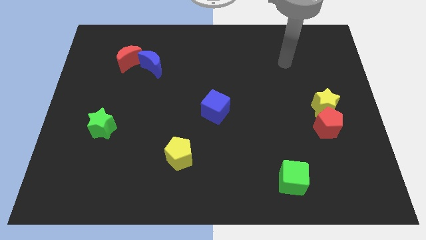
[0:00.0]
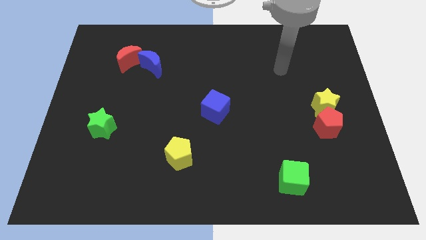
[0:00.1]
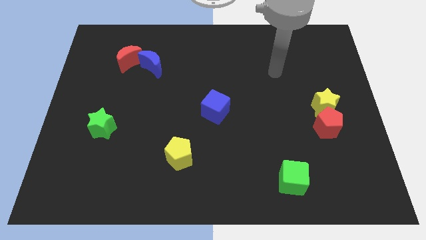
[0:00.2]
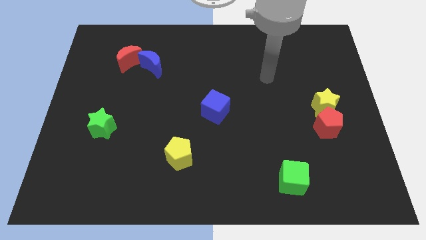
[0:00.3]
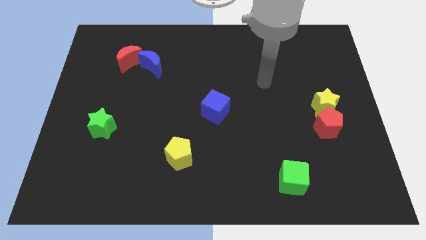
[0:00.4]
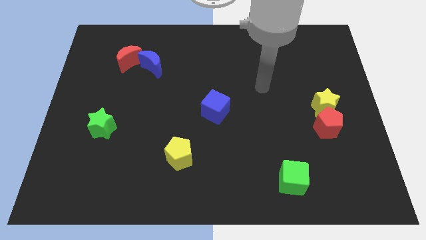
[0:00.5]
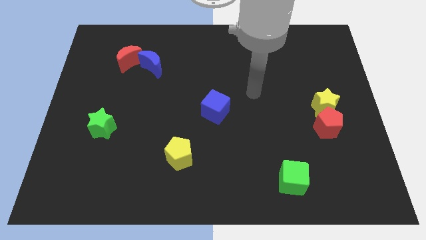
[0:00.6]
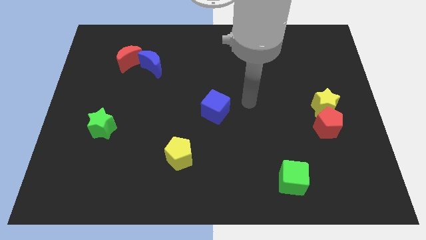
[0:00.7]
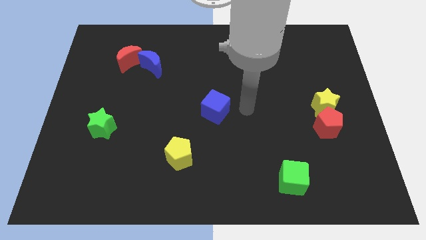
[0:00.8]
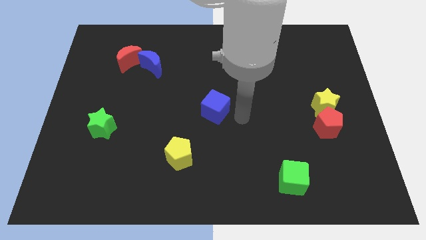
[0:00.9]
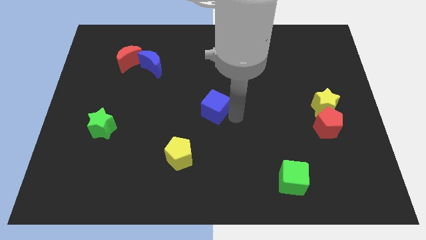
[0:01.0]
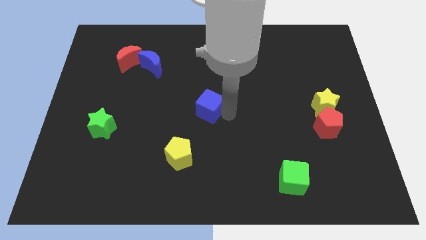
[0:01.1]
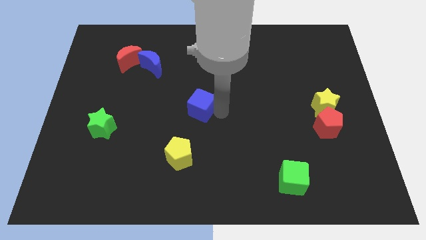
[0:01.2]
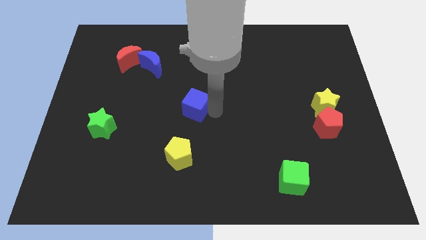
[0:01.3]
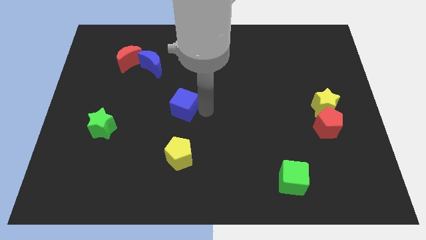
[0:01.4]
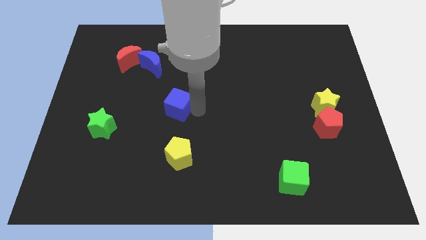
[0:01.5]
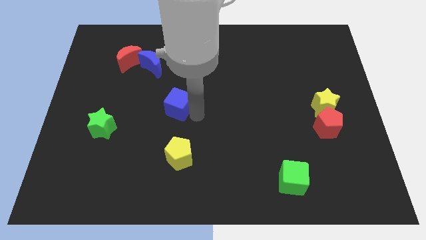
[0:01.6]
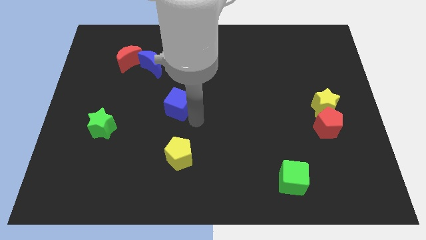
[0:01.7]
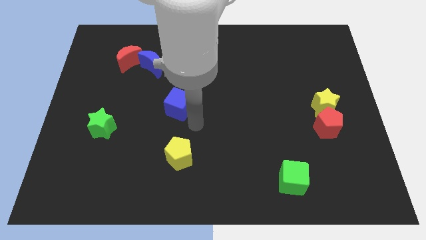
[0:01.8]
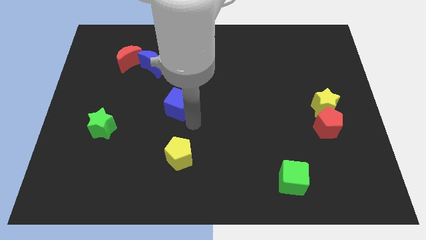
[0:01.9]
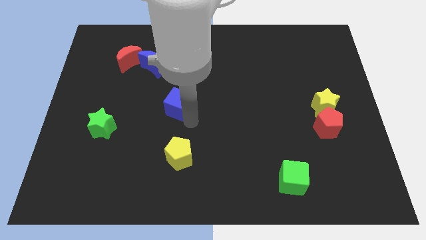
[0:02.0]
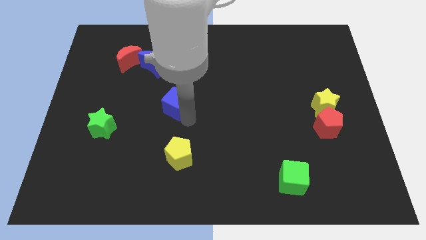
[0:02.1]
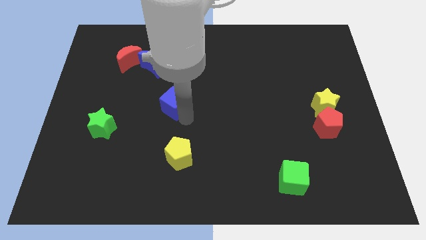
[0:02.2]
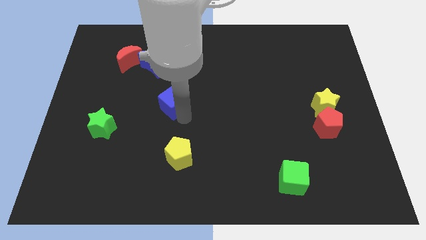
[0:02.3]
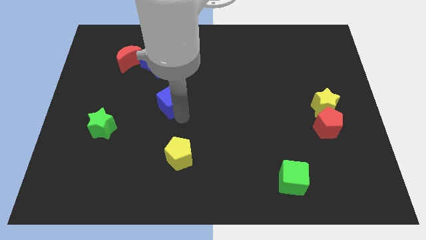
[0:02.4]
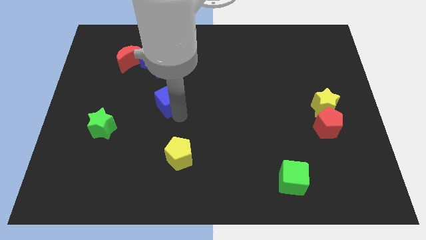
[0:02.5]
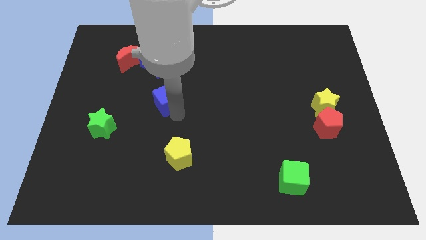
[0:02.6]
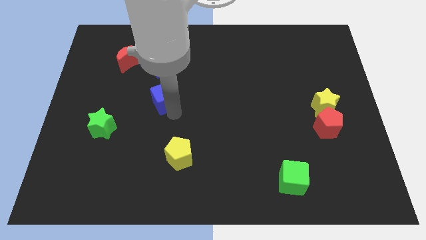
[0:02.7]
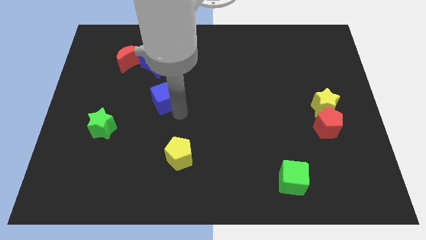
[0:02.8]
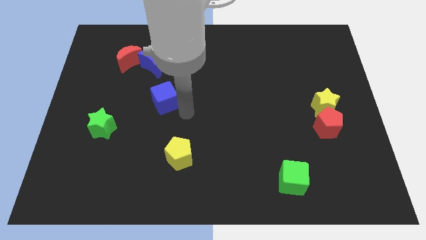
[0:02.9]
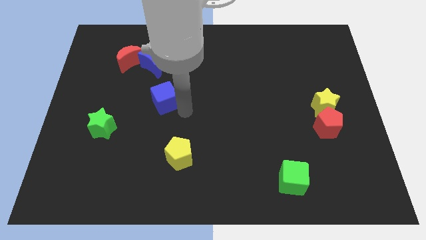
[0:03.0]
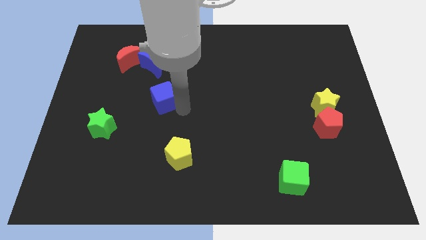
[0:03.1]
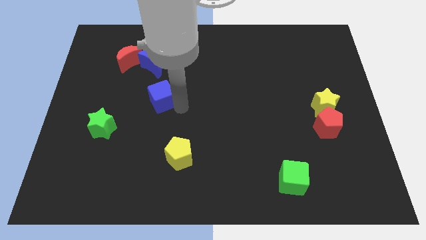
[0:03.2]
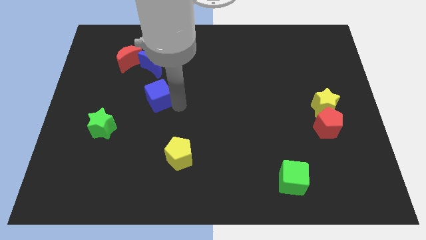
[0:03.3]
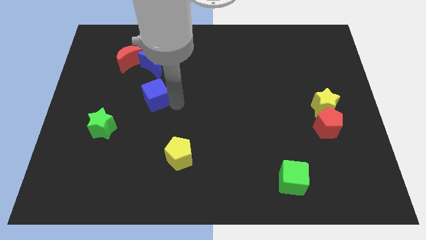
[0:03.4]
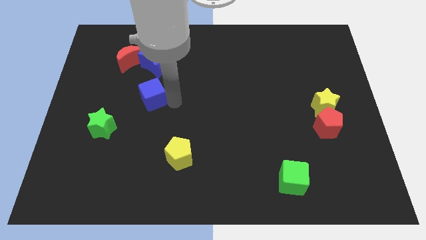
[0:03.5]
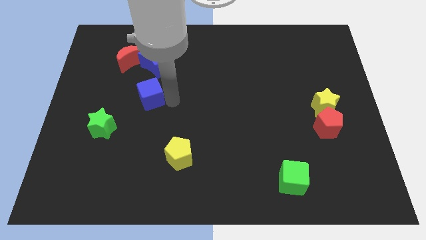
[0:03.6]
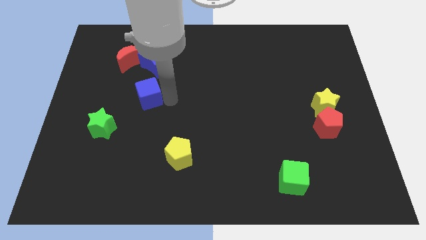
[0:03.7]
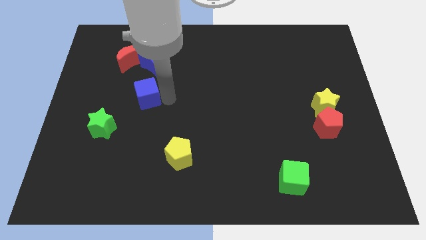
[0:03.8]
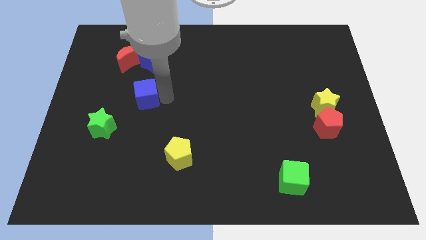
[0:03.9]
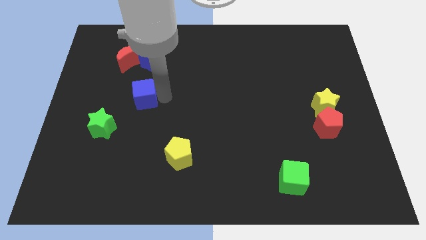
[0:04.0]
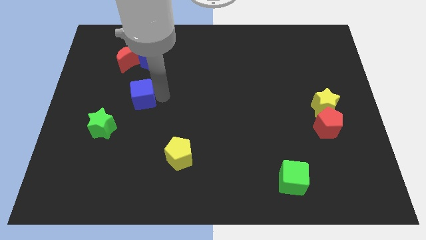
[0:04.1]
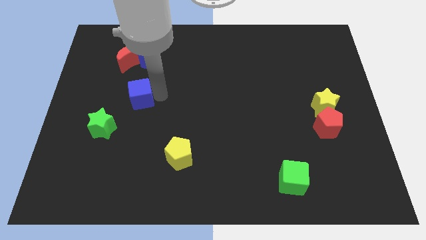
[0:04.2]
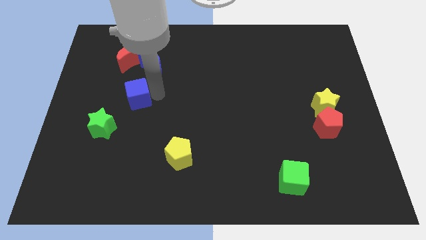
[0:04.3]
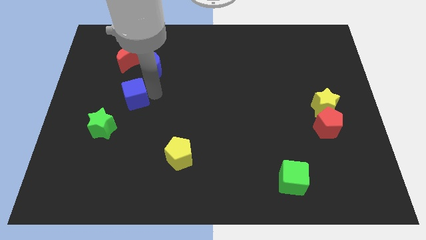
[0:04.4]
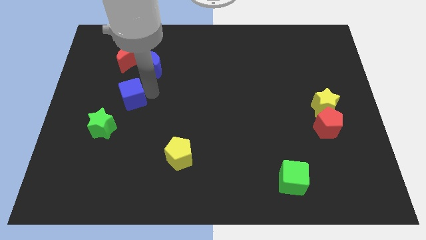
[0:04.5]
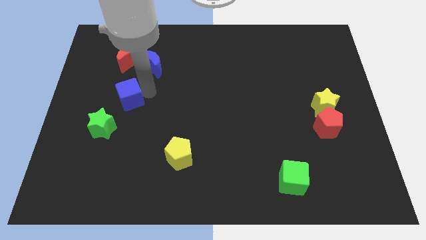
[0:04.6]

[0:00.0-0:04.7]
put the blue cube to the bottom left of the blue moon

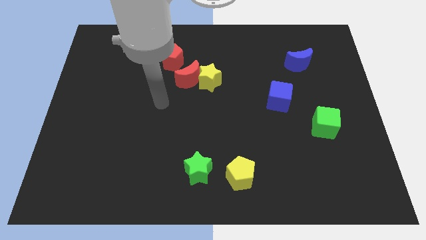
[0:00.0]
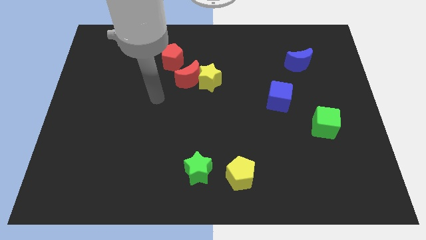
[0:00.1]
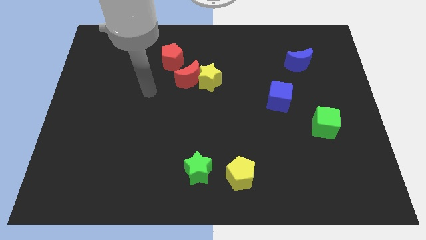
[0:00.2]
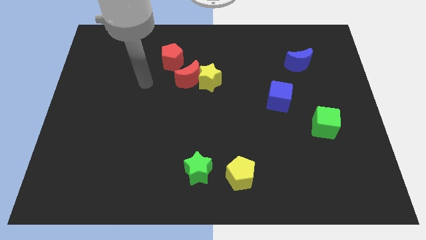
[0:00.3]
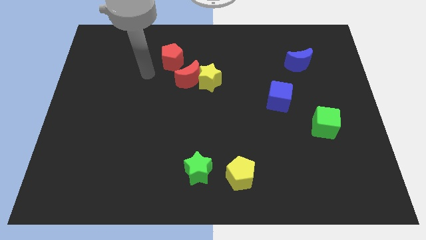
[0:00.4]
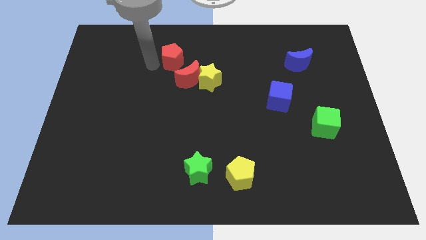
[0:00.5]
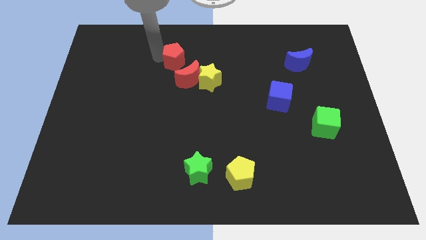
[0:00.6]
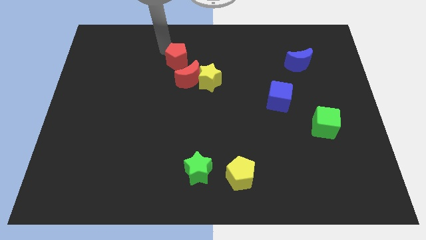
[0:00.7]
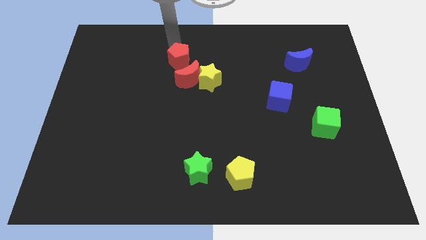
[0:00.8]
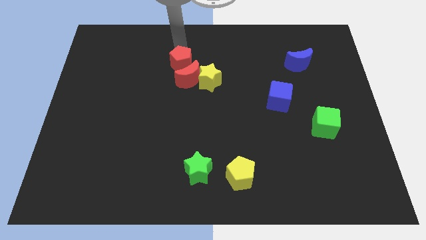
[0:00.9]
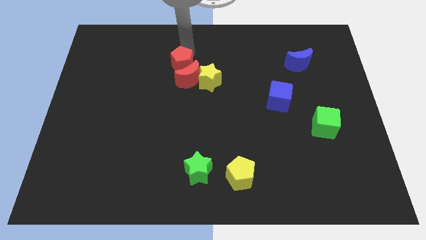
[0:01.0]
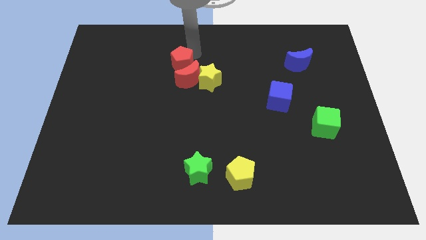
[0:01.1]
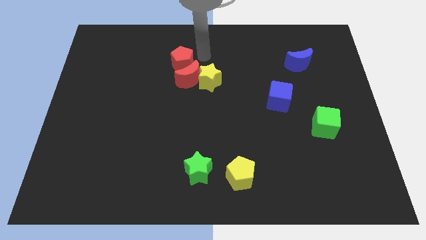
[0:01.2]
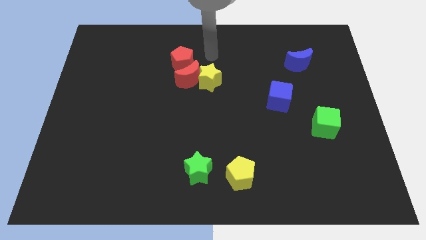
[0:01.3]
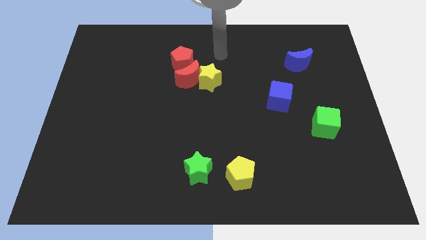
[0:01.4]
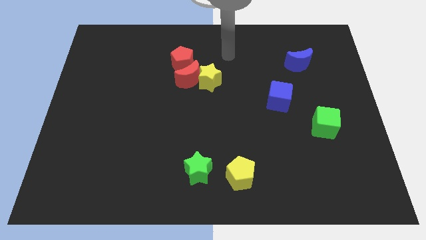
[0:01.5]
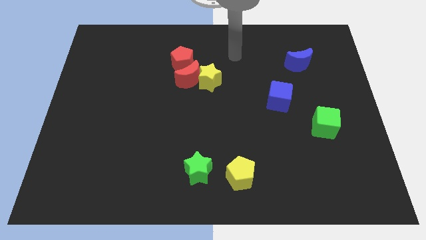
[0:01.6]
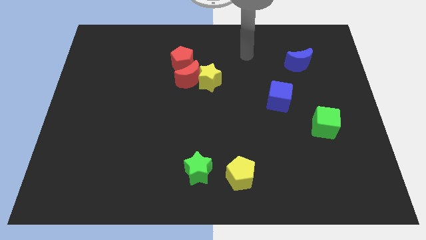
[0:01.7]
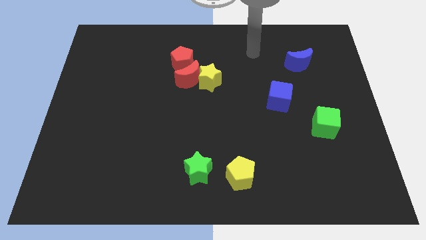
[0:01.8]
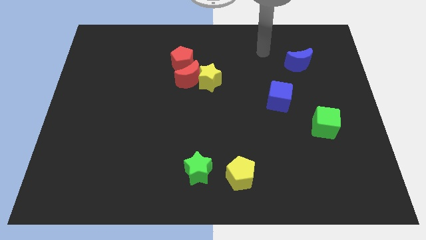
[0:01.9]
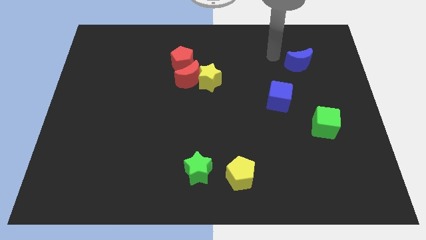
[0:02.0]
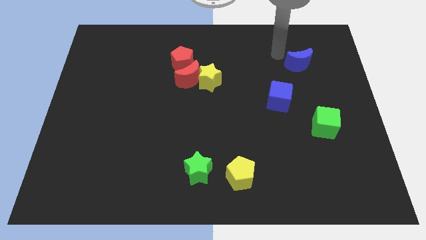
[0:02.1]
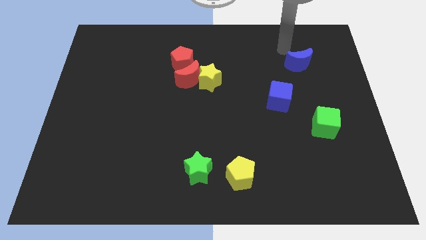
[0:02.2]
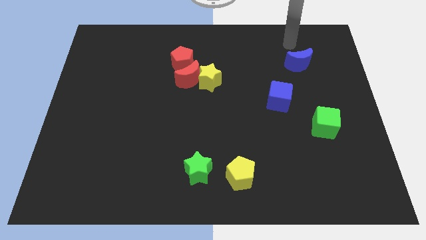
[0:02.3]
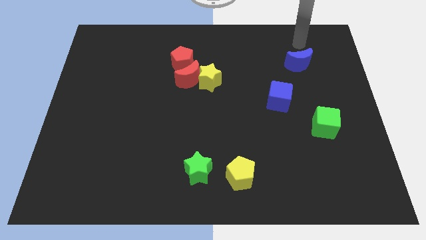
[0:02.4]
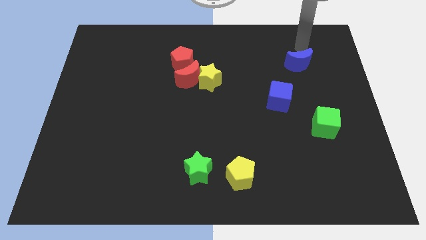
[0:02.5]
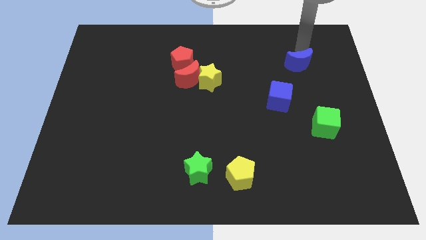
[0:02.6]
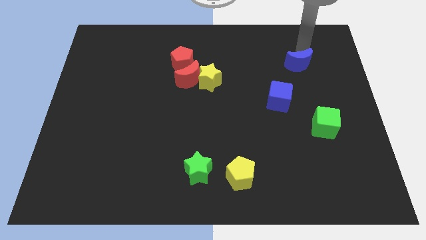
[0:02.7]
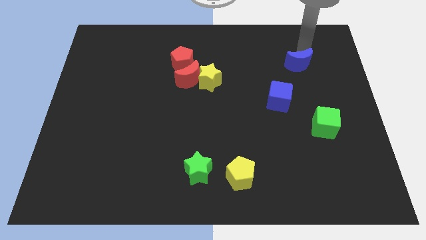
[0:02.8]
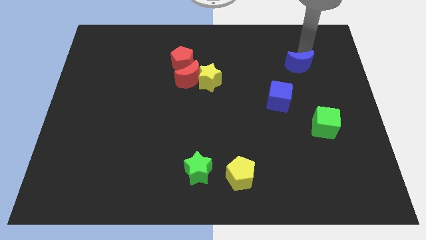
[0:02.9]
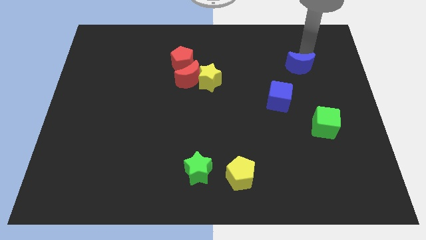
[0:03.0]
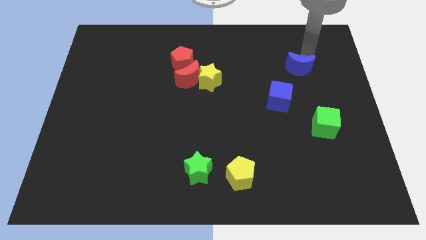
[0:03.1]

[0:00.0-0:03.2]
move the blue moon diagonally up and to the right of the blue cube
